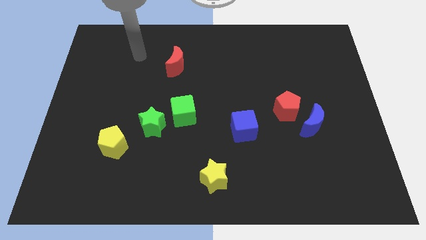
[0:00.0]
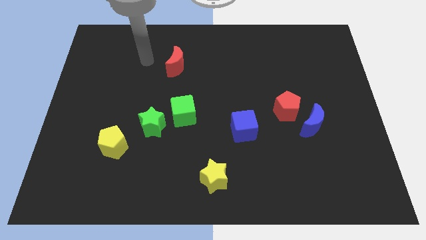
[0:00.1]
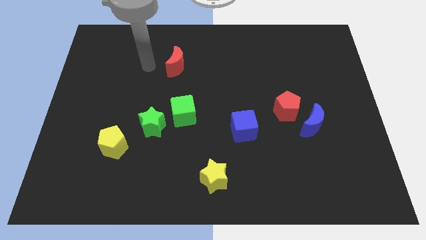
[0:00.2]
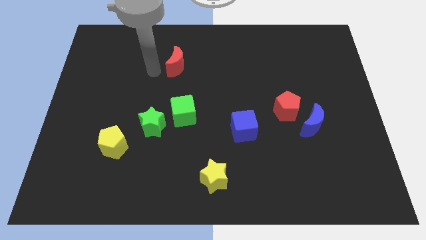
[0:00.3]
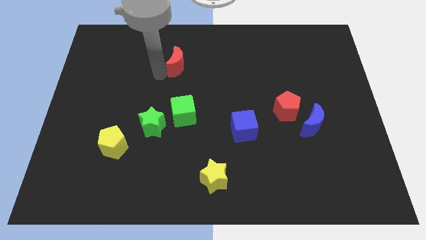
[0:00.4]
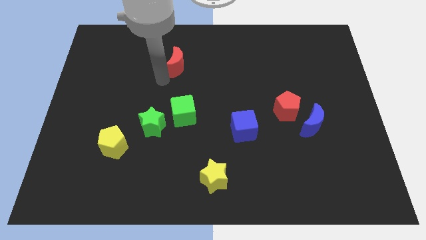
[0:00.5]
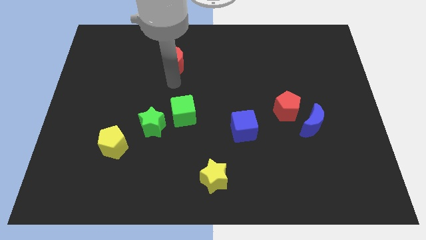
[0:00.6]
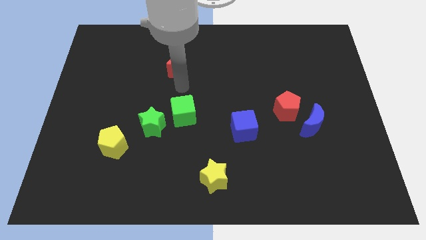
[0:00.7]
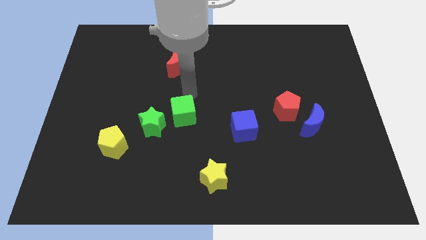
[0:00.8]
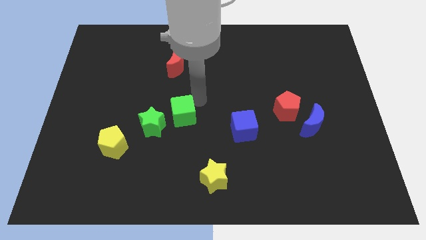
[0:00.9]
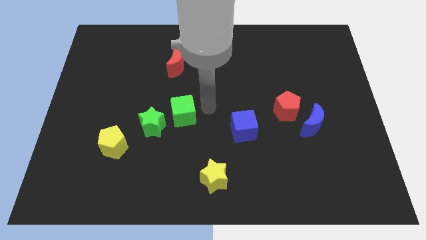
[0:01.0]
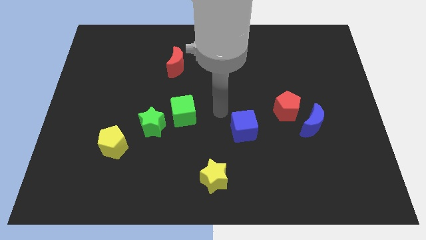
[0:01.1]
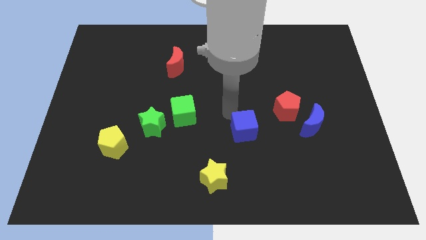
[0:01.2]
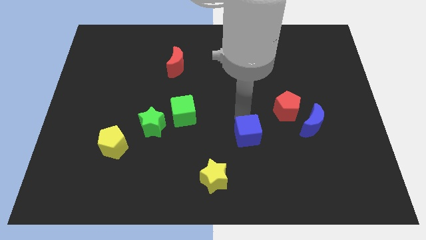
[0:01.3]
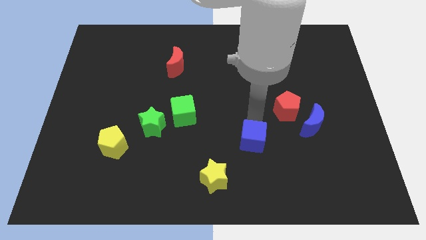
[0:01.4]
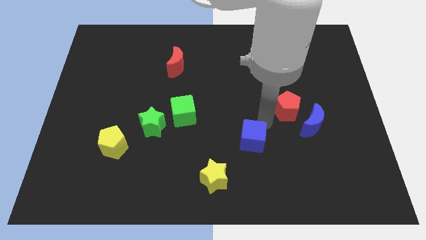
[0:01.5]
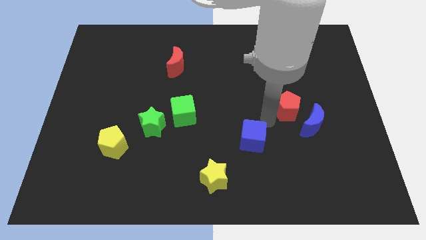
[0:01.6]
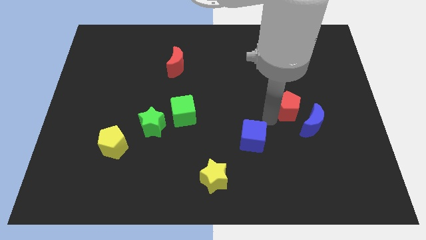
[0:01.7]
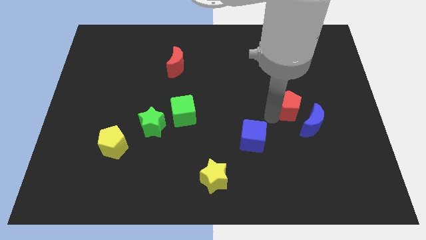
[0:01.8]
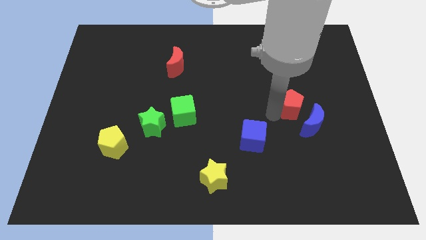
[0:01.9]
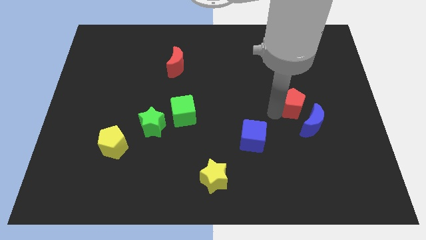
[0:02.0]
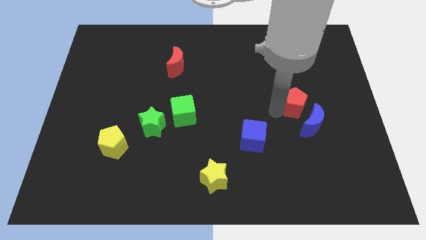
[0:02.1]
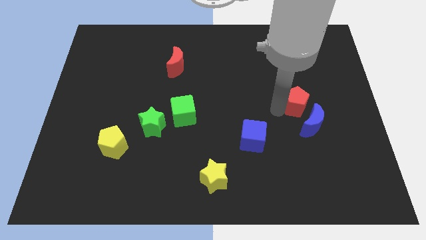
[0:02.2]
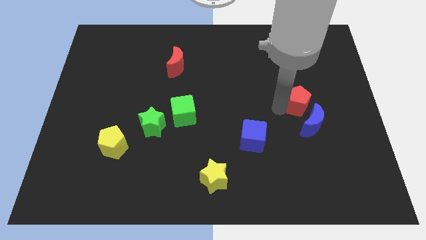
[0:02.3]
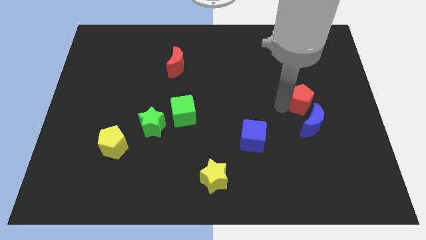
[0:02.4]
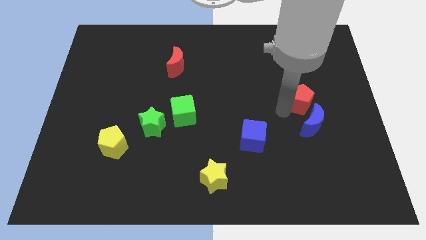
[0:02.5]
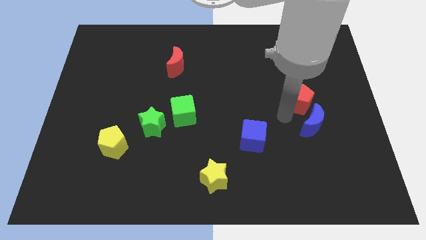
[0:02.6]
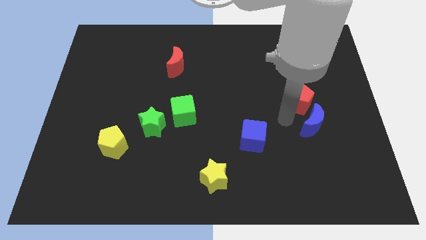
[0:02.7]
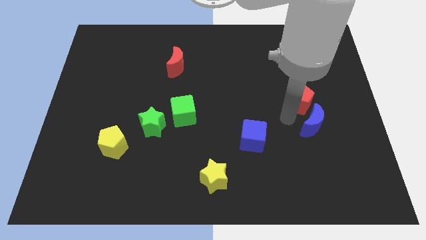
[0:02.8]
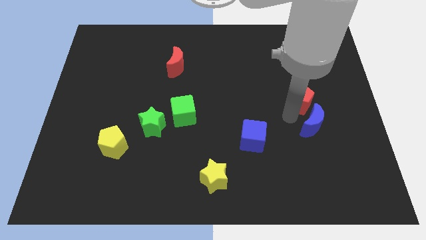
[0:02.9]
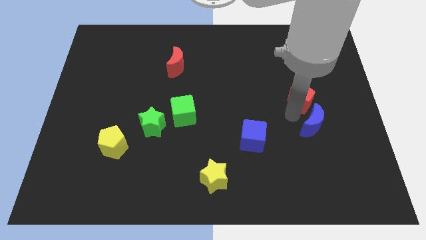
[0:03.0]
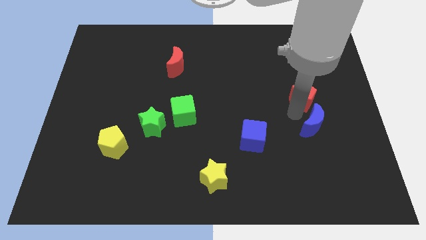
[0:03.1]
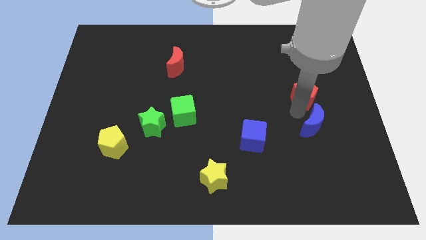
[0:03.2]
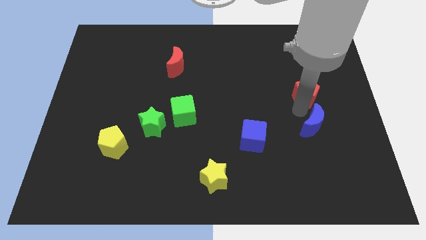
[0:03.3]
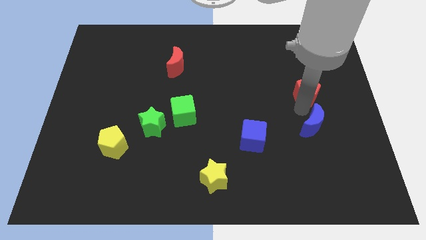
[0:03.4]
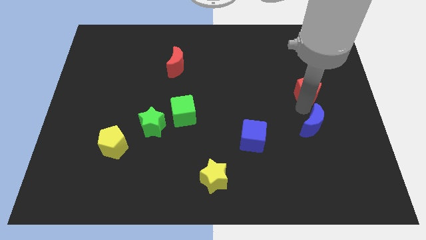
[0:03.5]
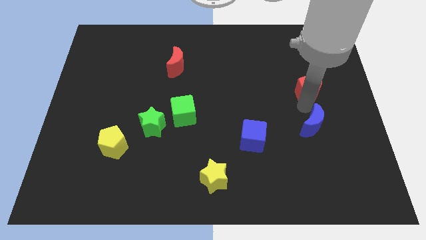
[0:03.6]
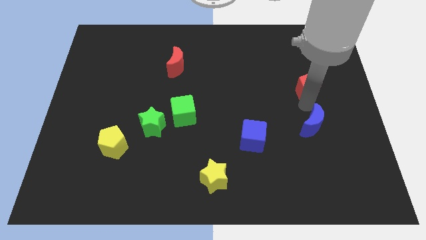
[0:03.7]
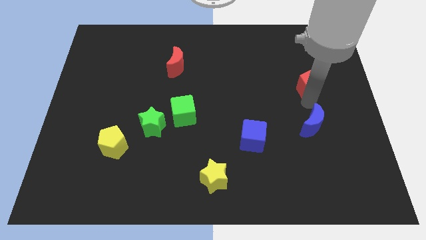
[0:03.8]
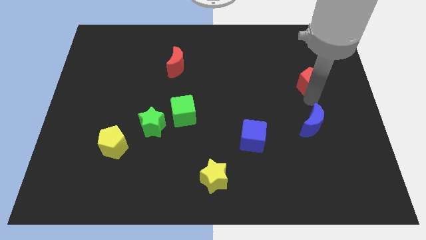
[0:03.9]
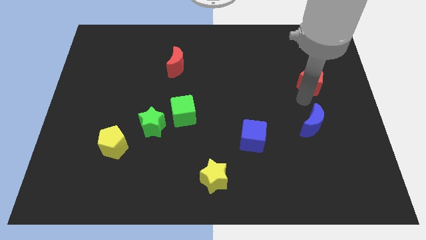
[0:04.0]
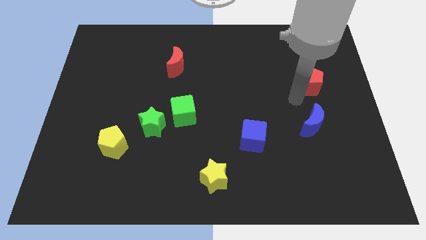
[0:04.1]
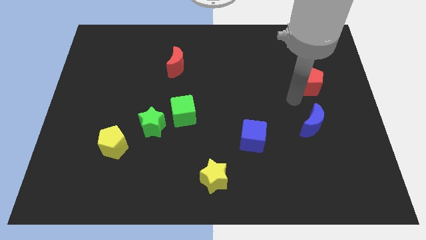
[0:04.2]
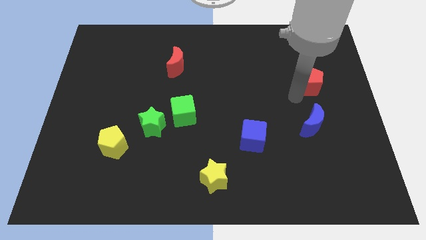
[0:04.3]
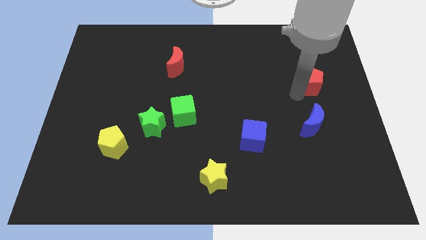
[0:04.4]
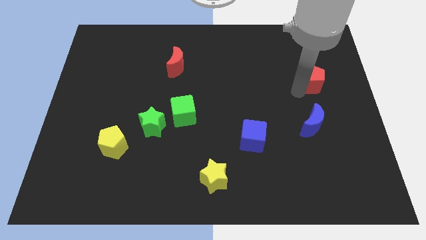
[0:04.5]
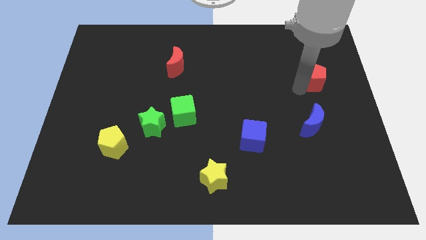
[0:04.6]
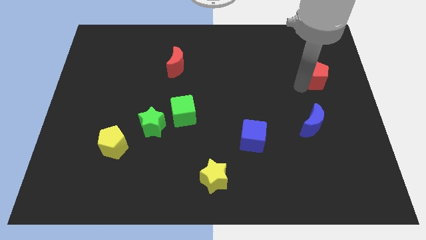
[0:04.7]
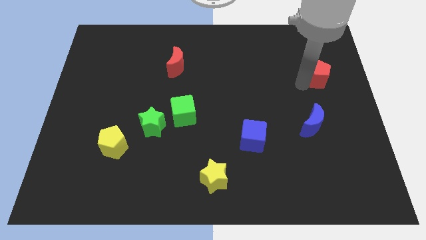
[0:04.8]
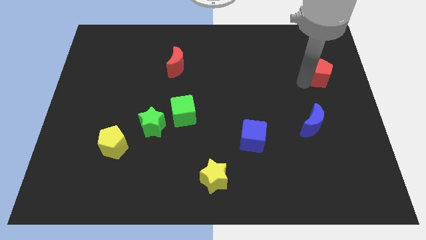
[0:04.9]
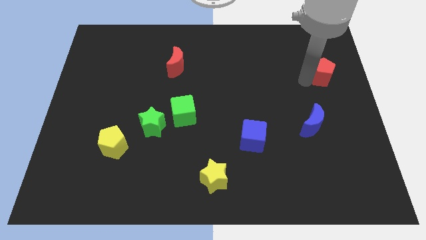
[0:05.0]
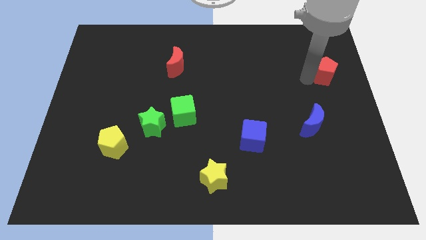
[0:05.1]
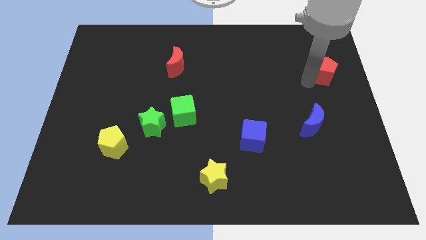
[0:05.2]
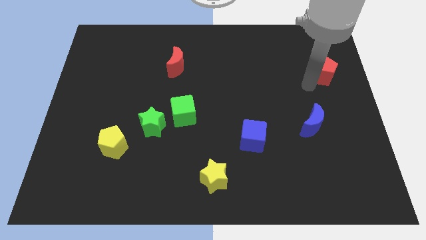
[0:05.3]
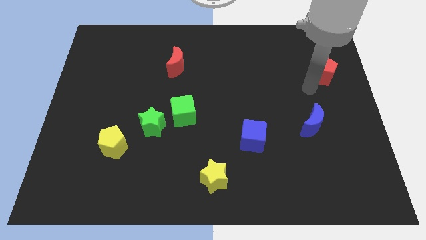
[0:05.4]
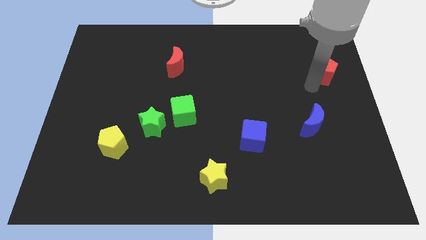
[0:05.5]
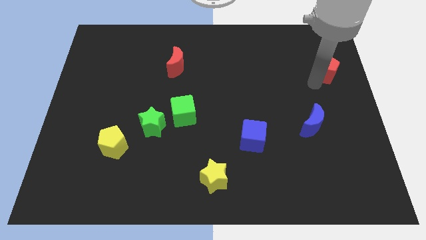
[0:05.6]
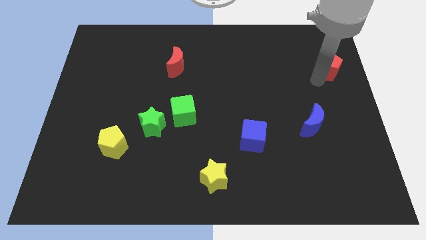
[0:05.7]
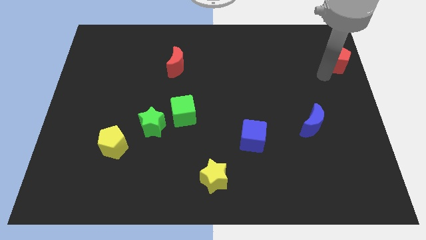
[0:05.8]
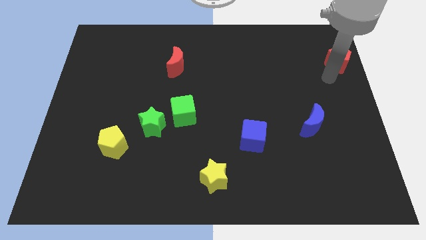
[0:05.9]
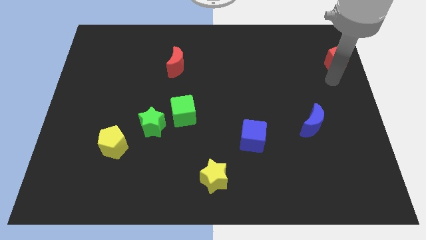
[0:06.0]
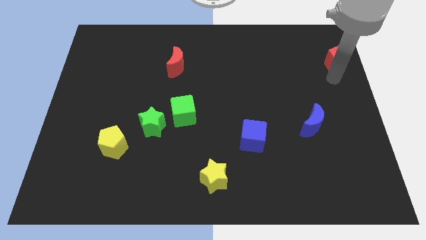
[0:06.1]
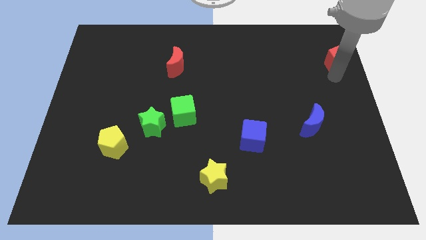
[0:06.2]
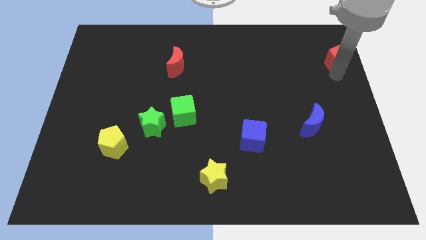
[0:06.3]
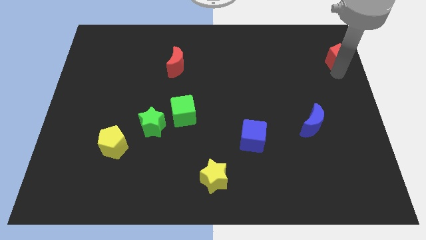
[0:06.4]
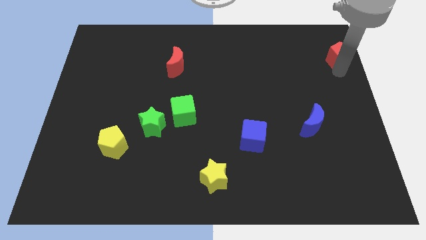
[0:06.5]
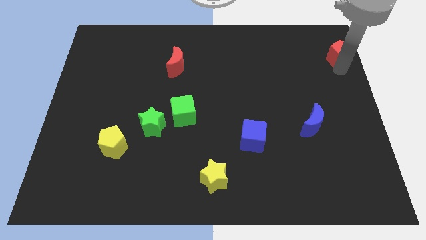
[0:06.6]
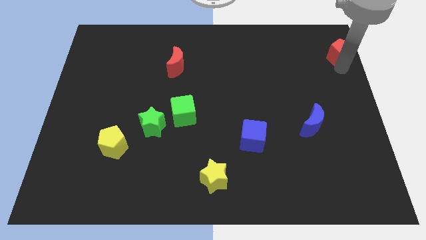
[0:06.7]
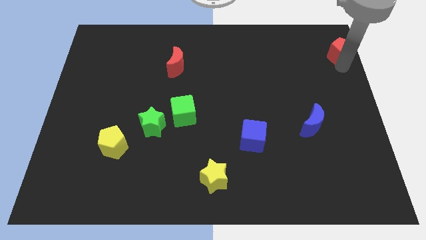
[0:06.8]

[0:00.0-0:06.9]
push the red pentagon to the top right of the board
